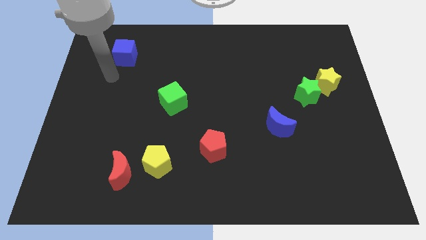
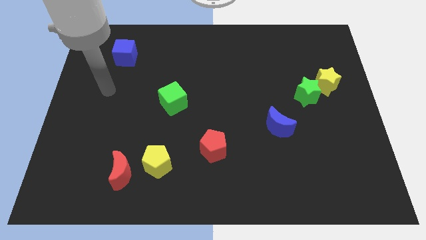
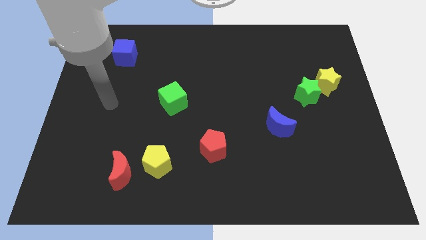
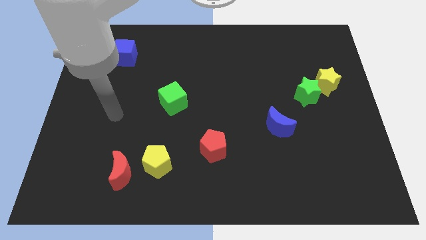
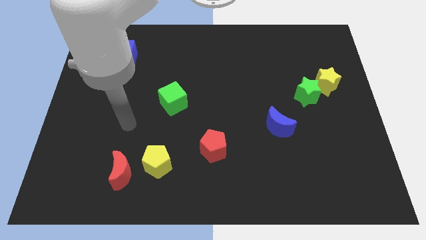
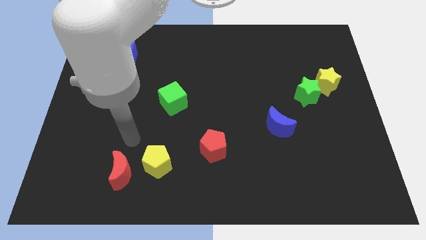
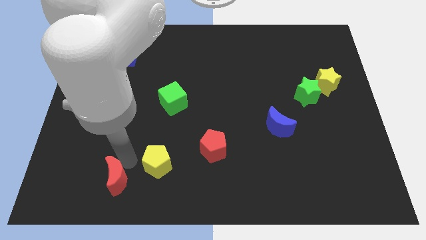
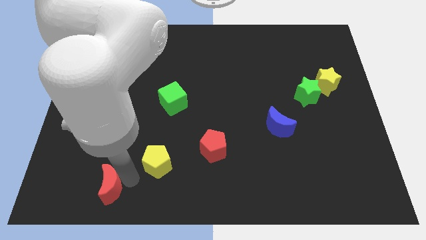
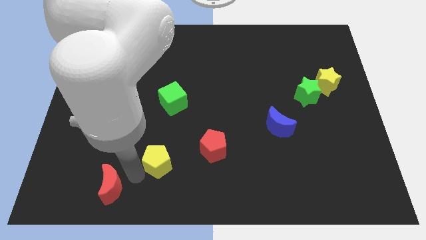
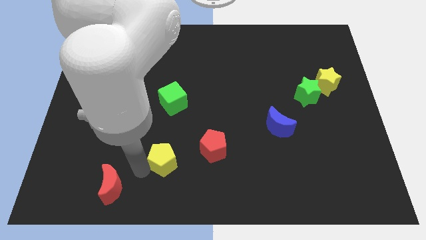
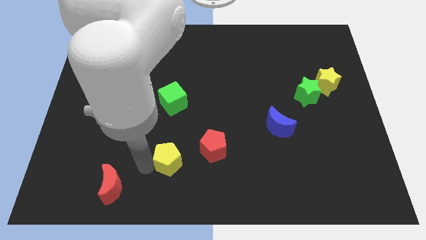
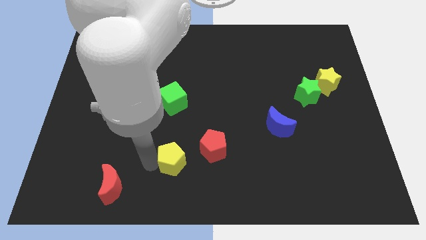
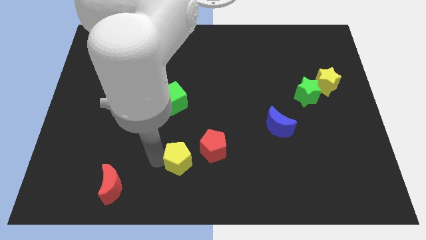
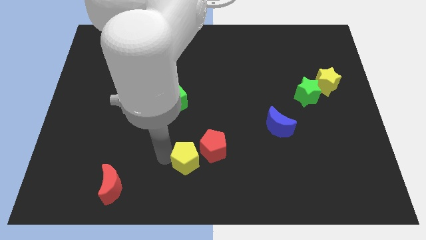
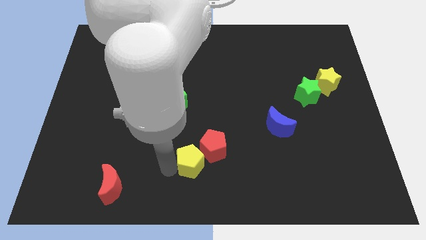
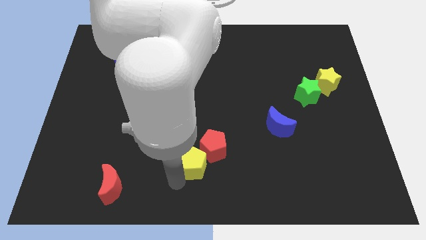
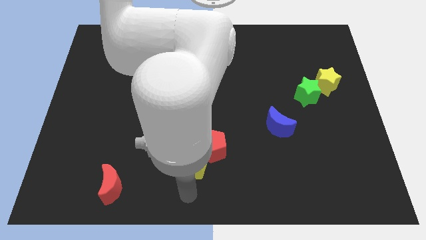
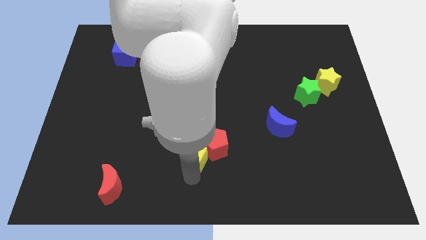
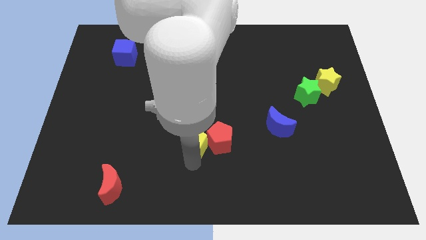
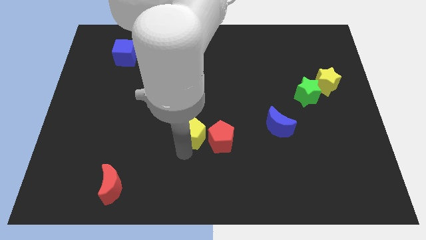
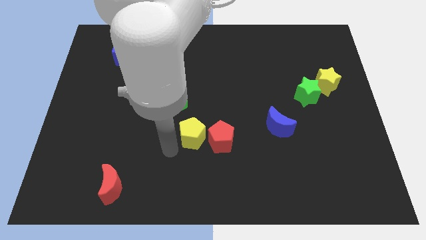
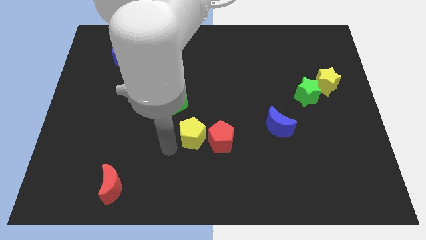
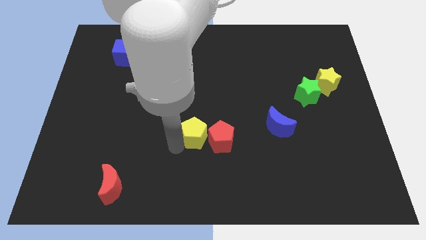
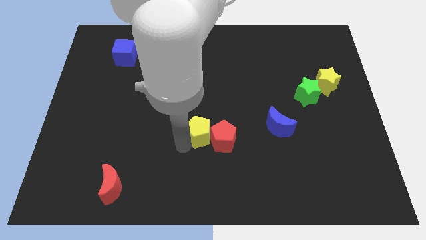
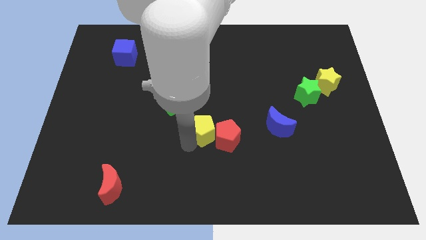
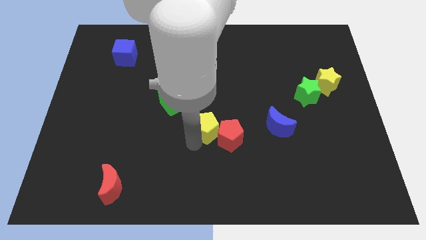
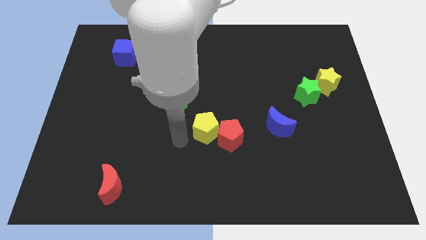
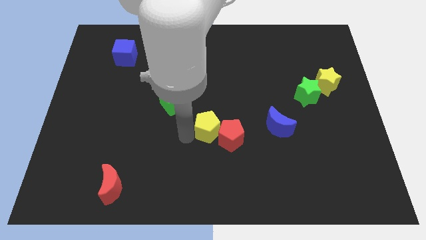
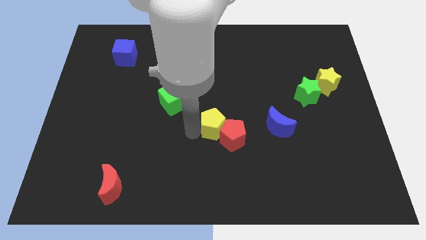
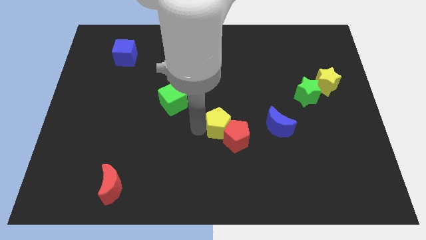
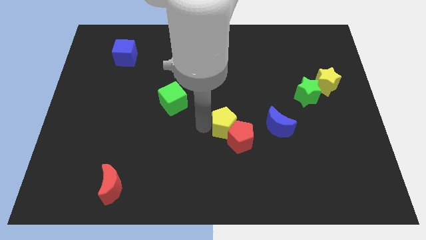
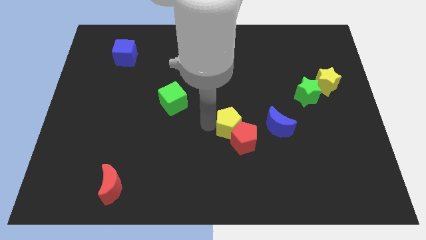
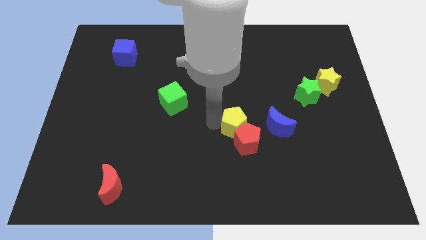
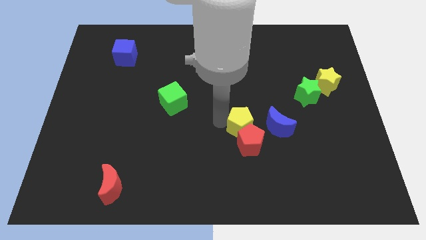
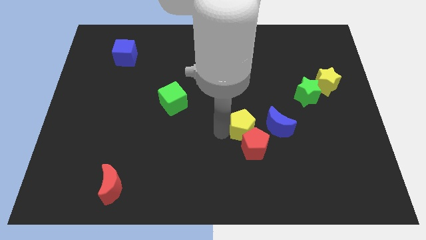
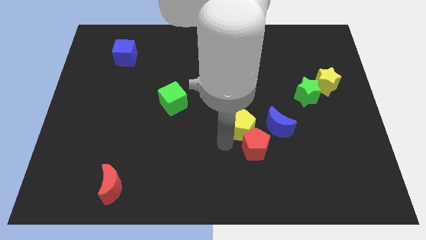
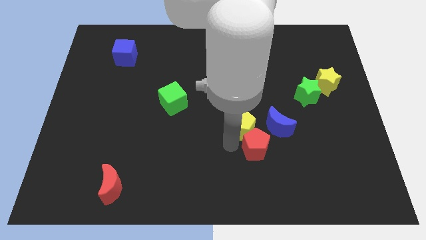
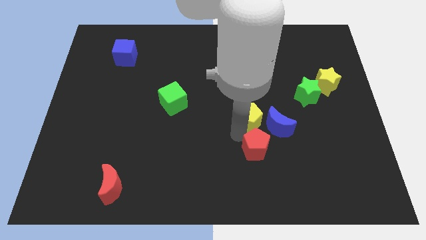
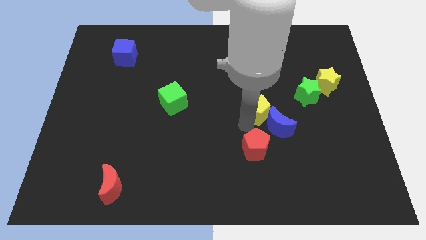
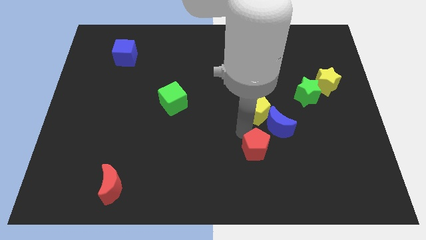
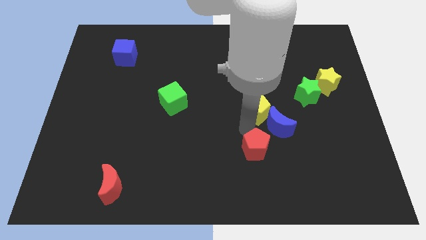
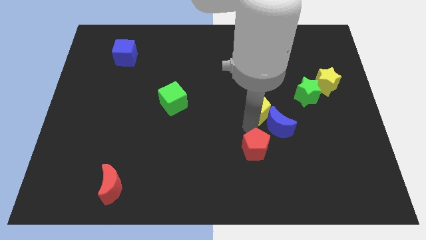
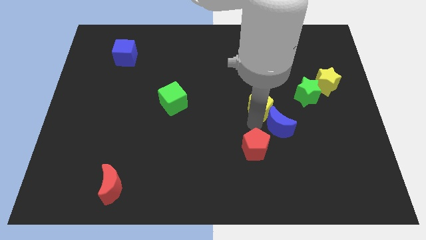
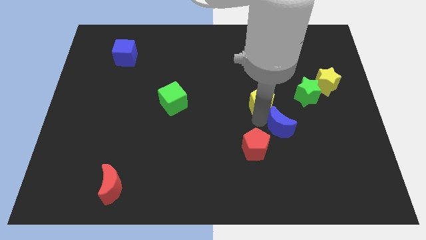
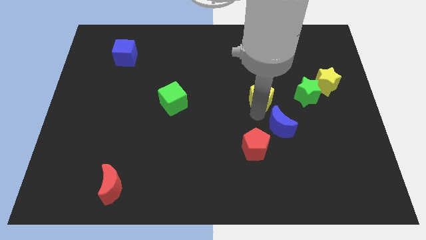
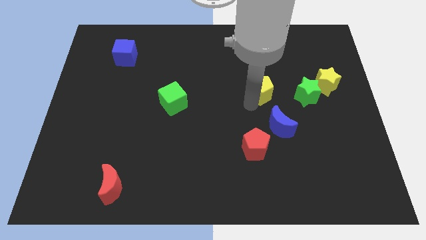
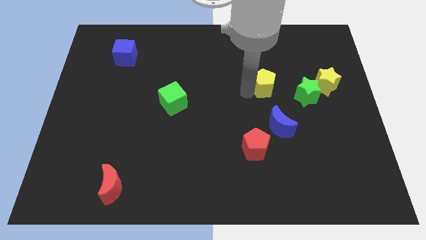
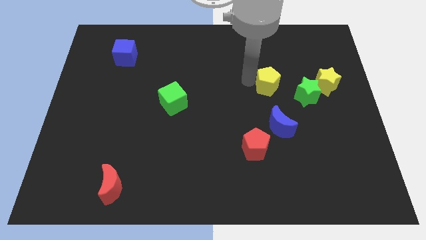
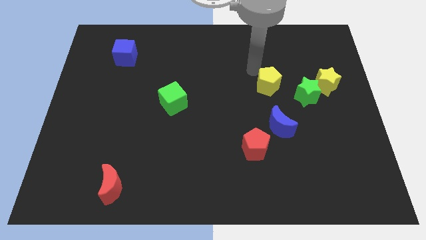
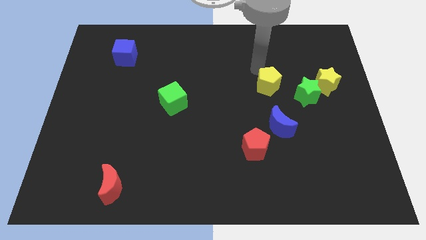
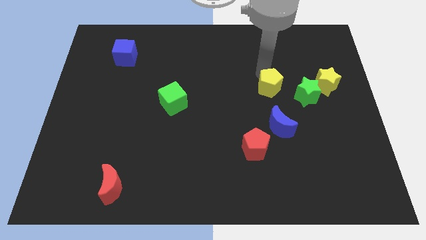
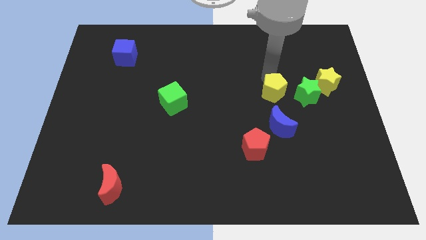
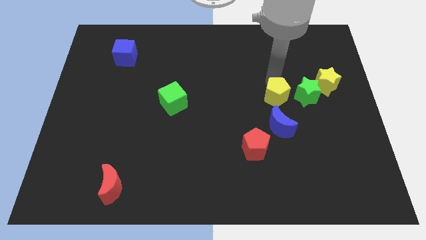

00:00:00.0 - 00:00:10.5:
push the yellow pentagon diagonally down and to the left of the green star

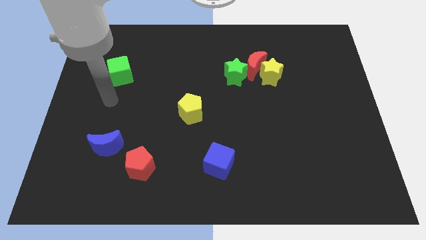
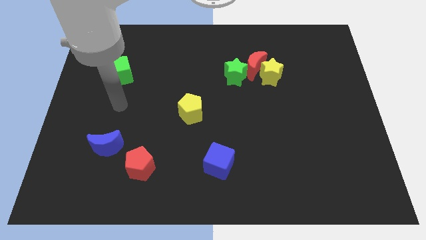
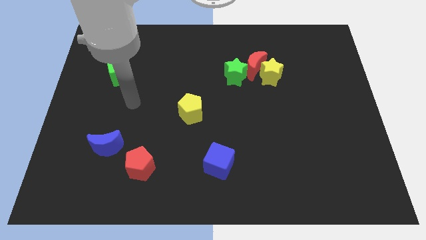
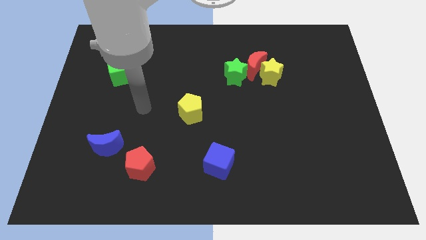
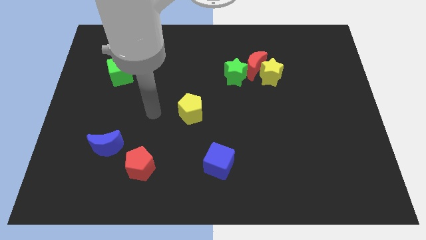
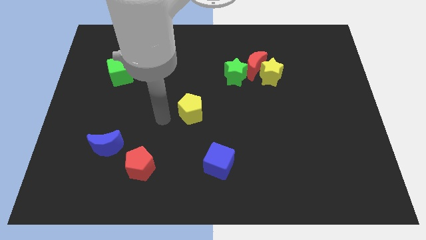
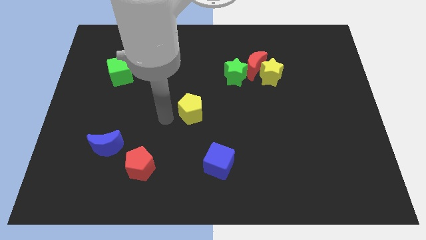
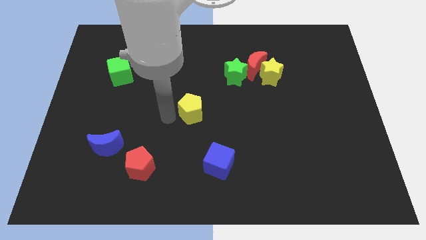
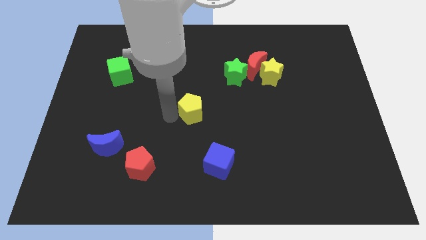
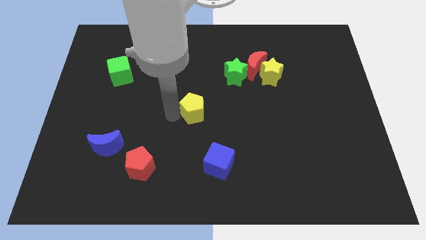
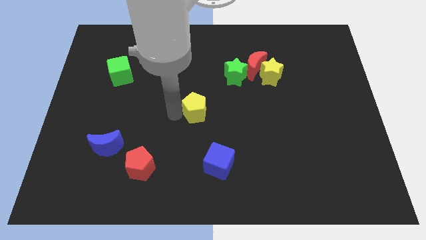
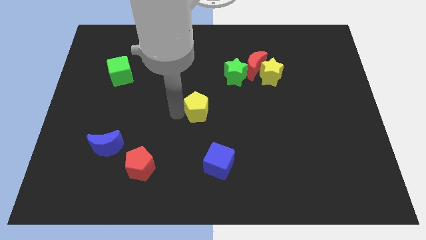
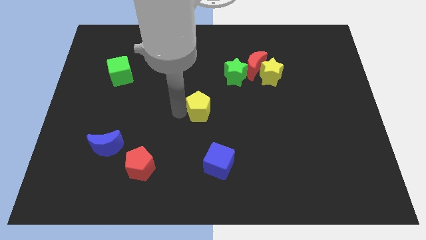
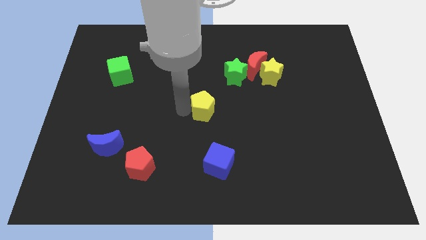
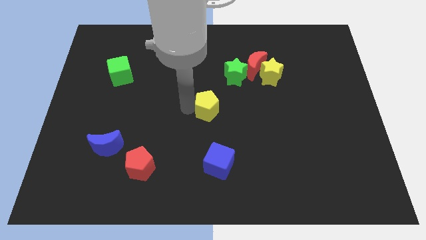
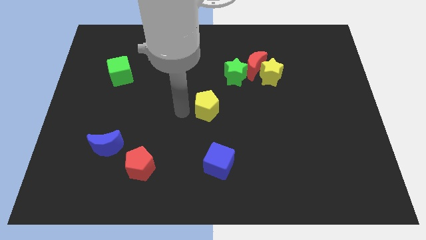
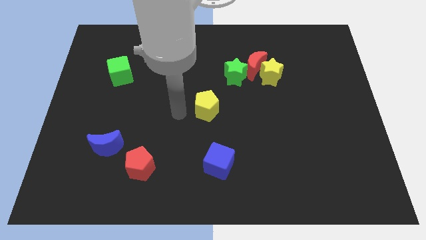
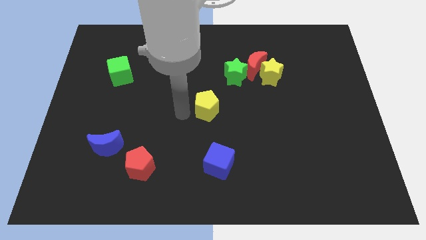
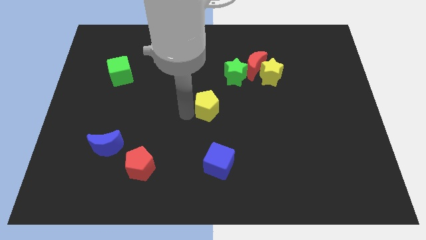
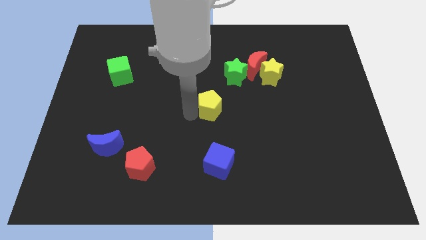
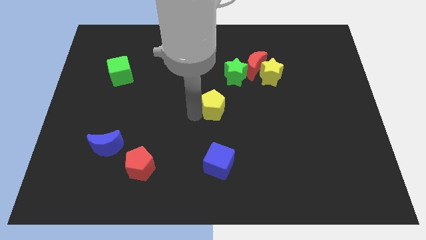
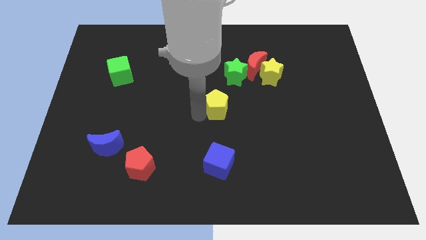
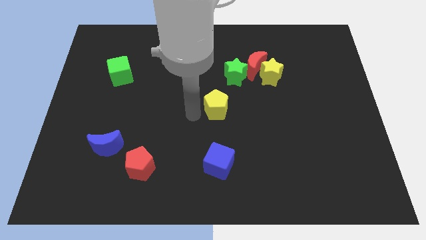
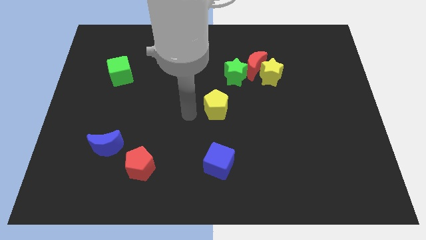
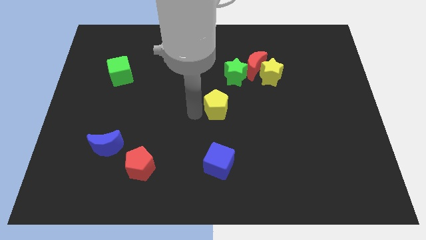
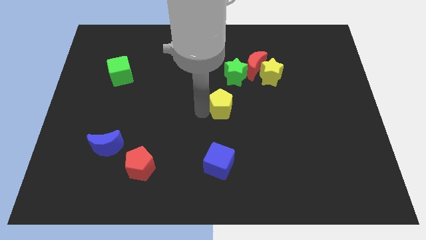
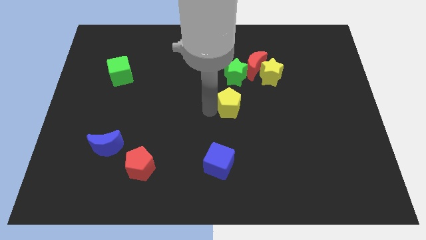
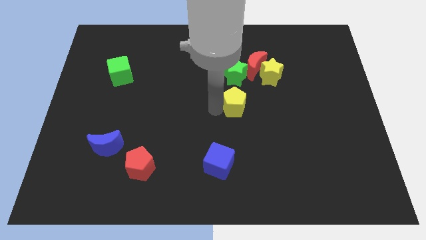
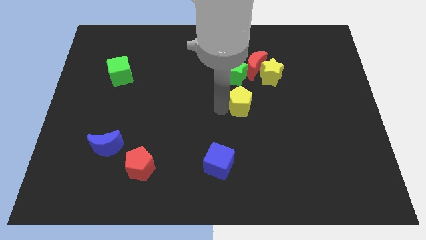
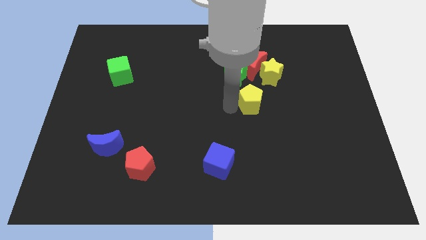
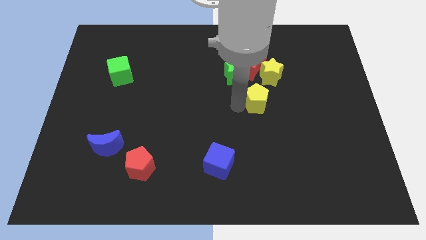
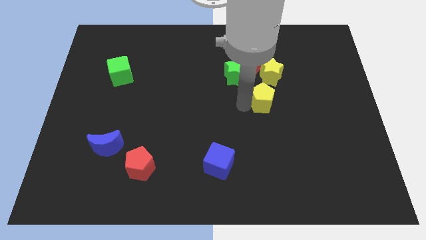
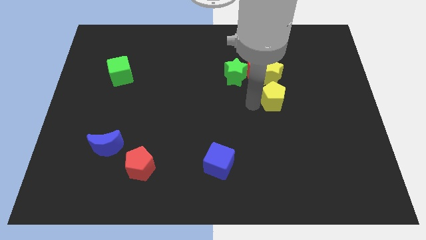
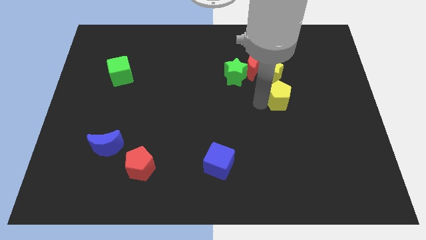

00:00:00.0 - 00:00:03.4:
move the yellow pentagon to the bottom right side of the yellow star
